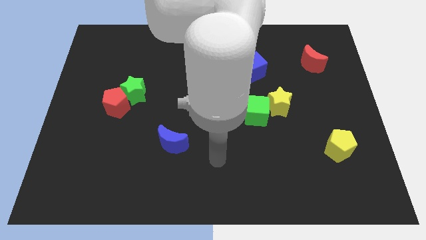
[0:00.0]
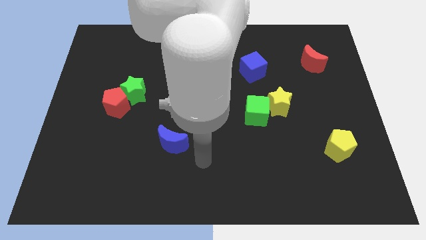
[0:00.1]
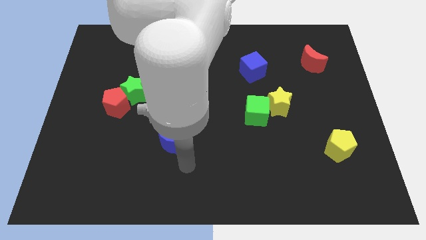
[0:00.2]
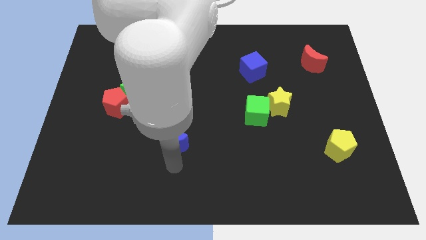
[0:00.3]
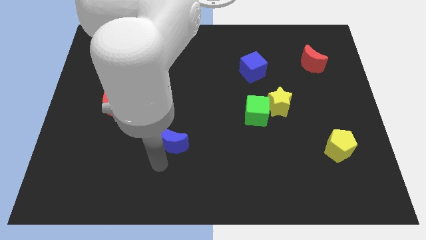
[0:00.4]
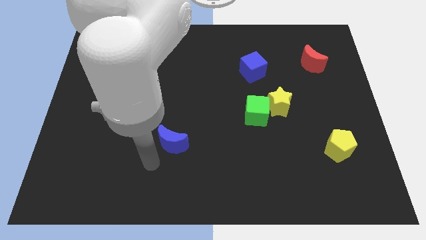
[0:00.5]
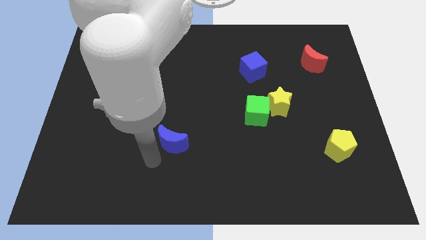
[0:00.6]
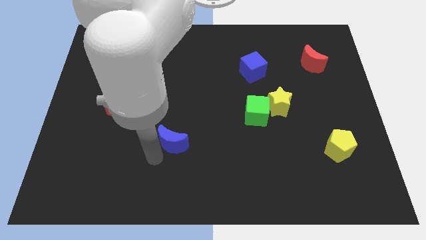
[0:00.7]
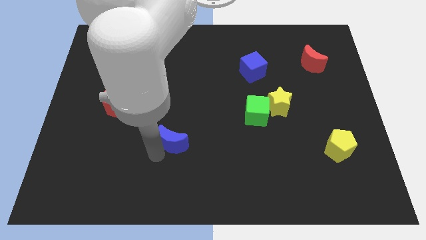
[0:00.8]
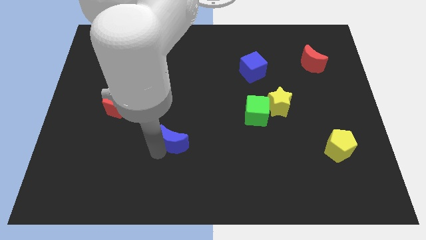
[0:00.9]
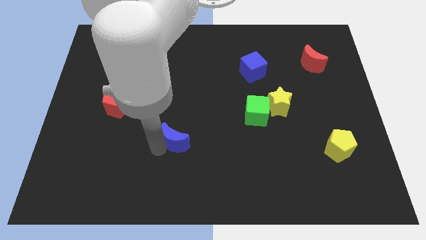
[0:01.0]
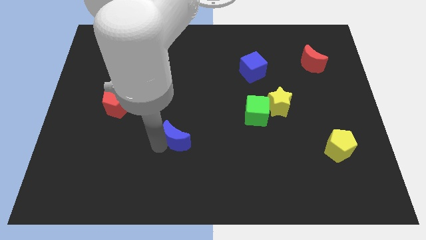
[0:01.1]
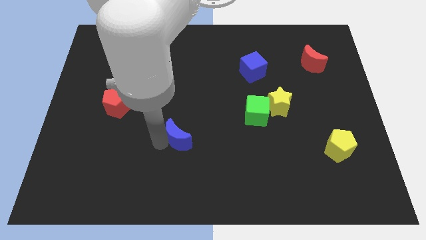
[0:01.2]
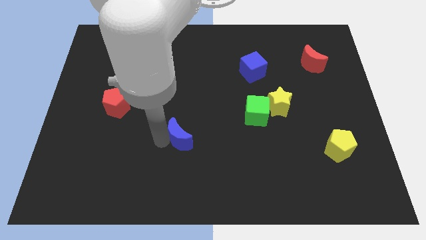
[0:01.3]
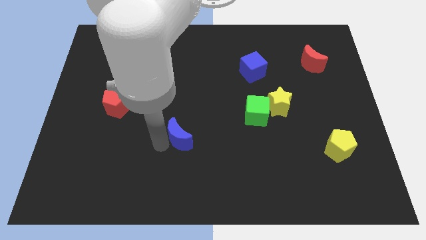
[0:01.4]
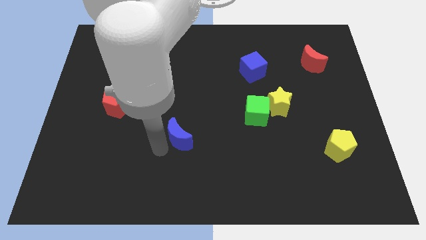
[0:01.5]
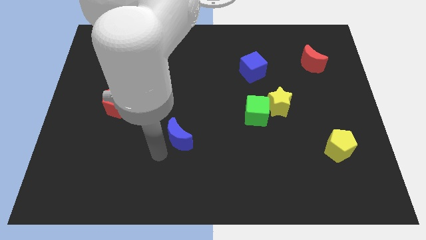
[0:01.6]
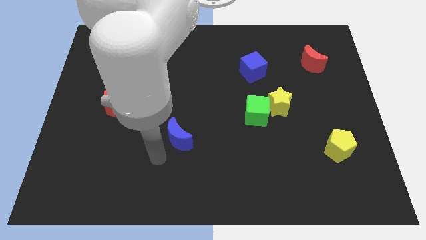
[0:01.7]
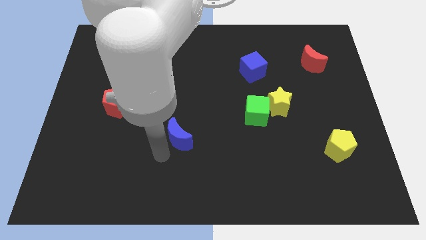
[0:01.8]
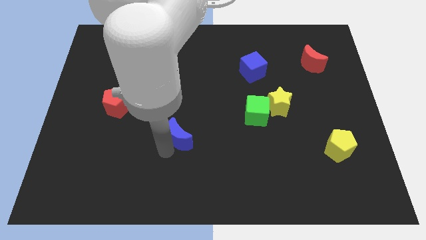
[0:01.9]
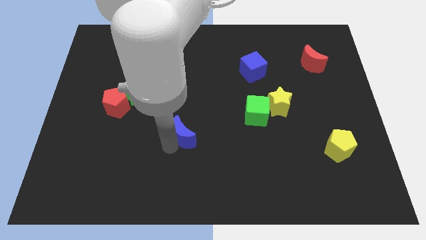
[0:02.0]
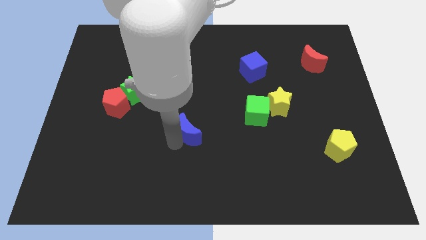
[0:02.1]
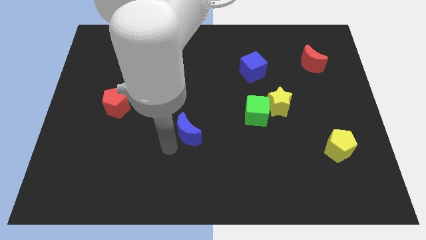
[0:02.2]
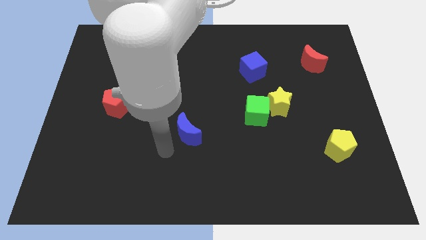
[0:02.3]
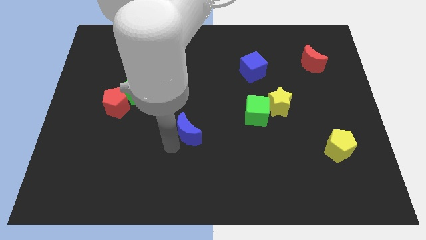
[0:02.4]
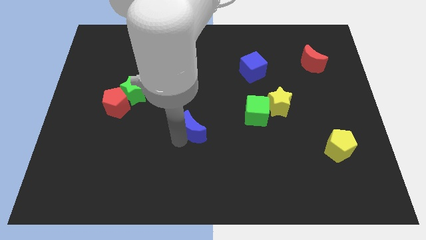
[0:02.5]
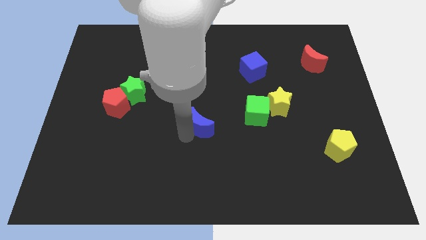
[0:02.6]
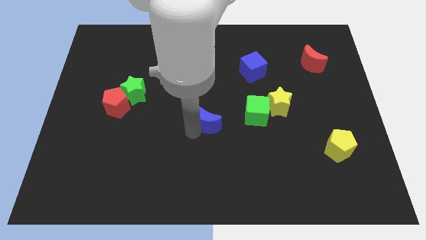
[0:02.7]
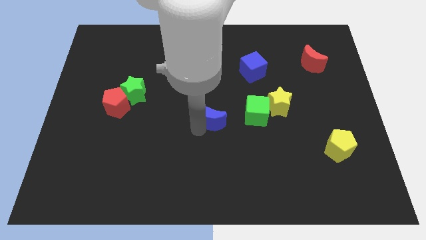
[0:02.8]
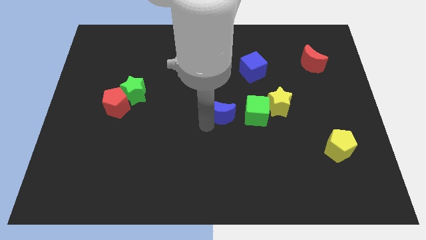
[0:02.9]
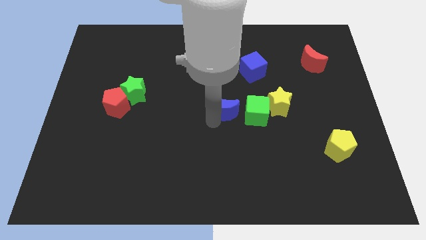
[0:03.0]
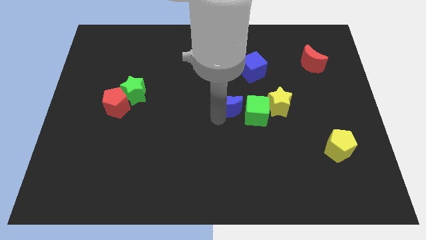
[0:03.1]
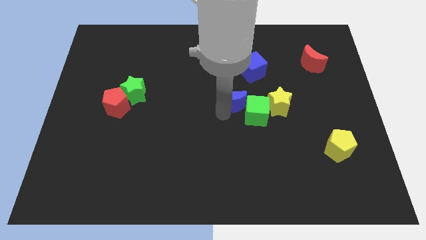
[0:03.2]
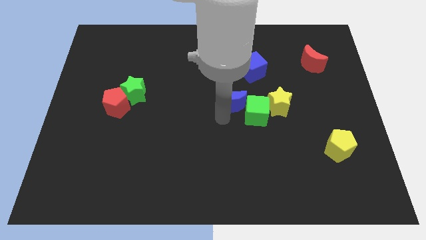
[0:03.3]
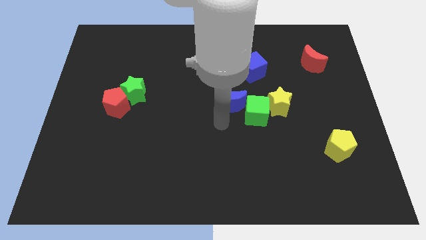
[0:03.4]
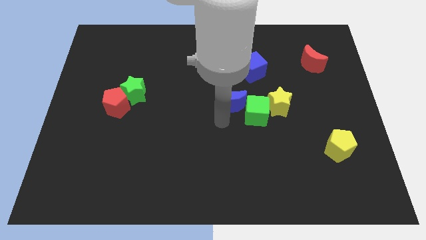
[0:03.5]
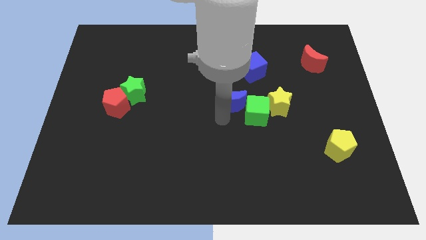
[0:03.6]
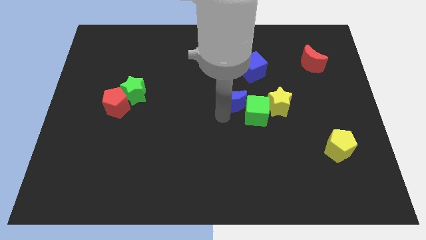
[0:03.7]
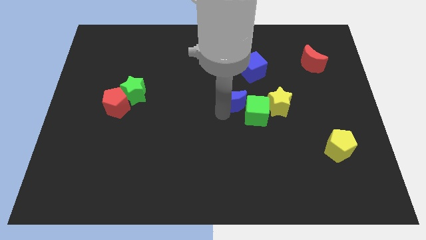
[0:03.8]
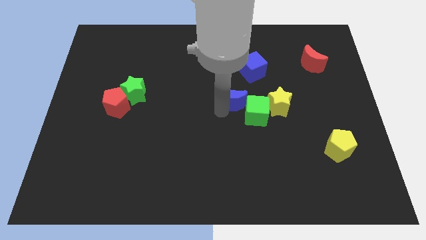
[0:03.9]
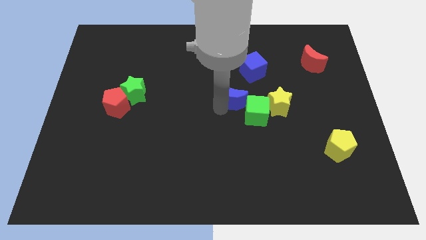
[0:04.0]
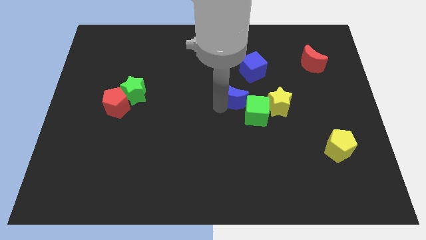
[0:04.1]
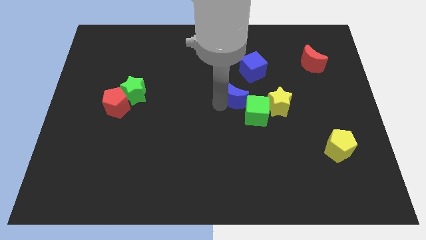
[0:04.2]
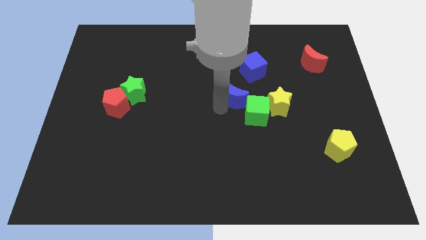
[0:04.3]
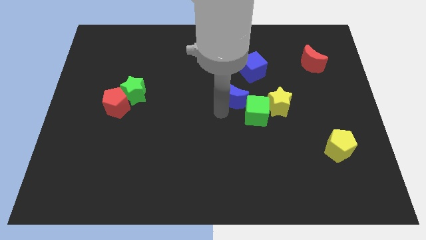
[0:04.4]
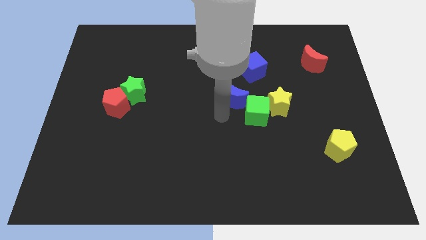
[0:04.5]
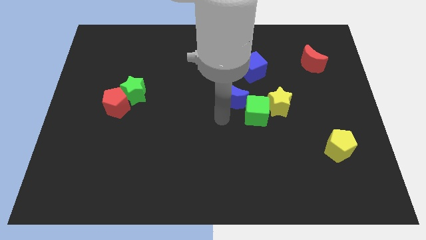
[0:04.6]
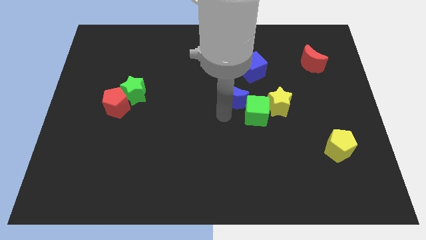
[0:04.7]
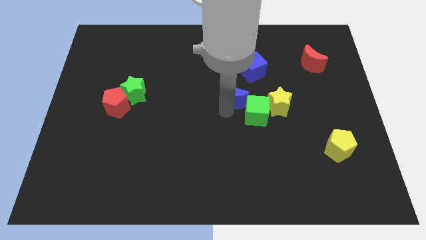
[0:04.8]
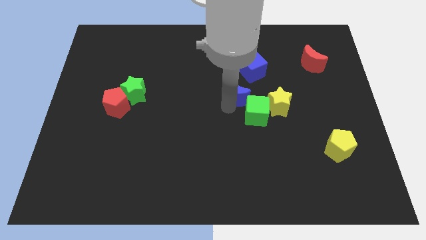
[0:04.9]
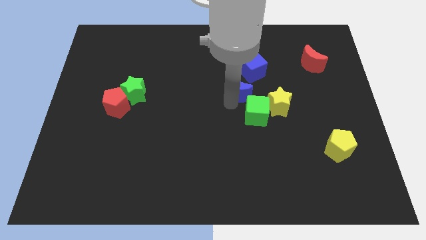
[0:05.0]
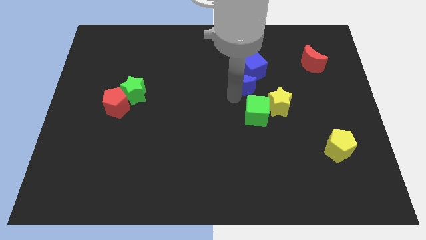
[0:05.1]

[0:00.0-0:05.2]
put the blue moon next to the blue cube

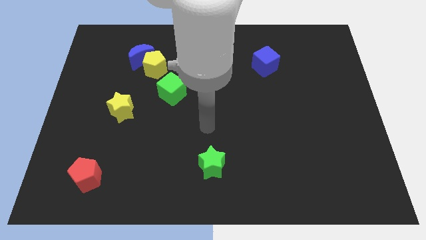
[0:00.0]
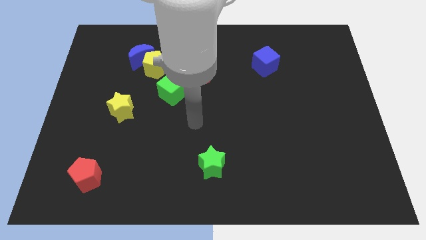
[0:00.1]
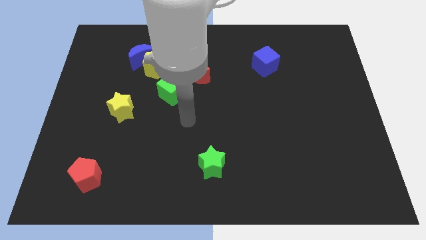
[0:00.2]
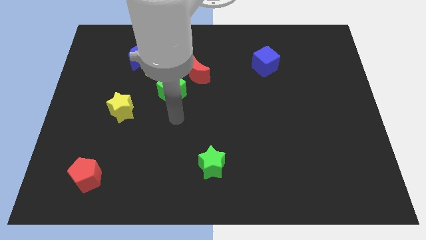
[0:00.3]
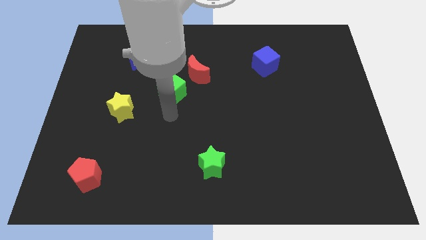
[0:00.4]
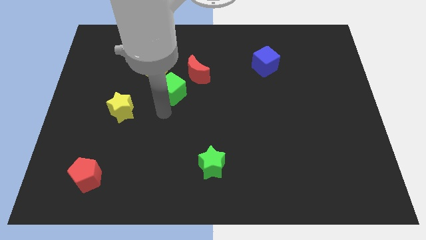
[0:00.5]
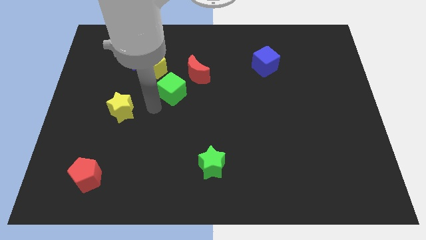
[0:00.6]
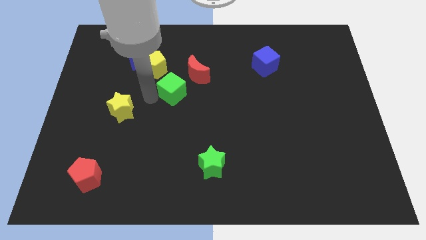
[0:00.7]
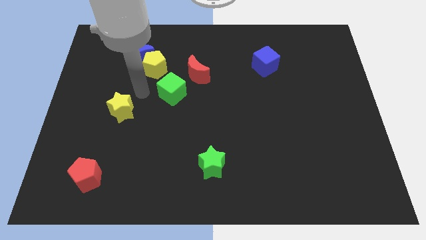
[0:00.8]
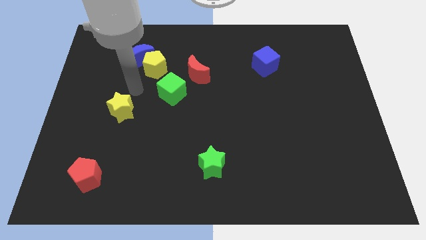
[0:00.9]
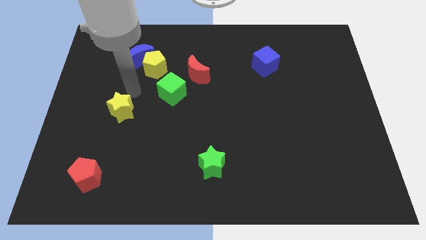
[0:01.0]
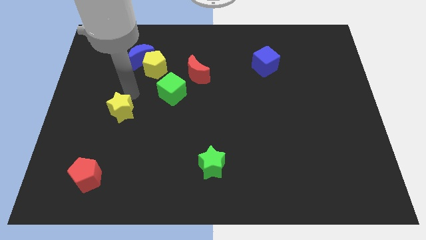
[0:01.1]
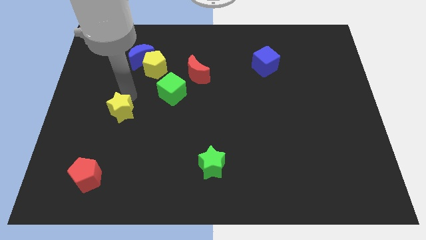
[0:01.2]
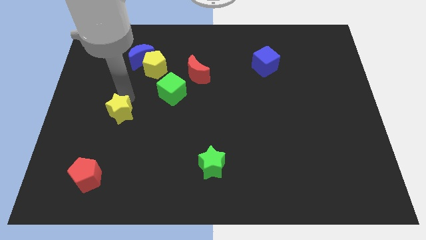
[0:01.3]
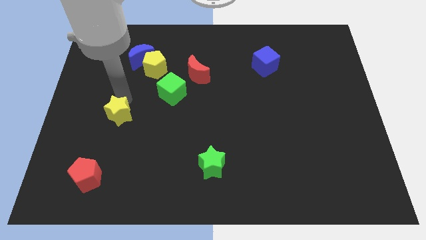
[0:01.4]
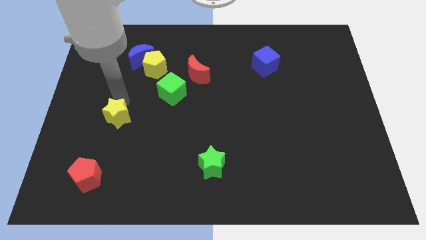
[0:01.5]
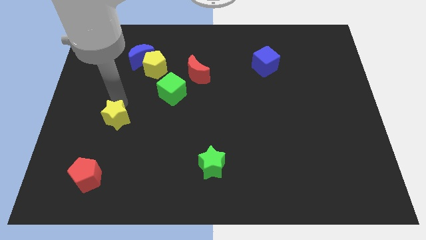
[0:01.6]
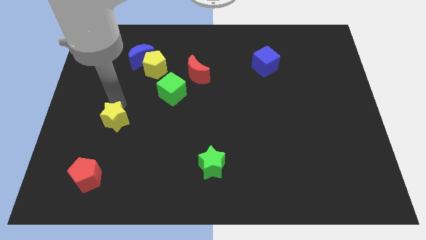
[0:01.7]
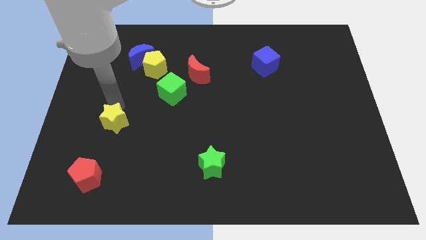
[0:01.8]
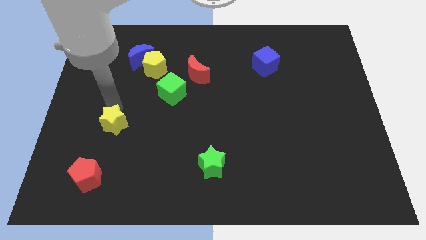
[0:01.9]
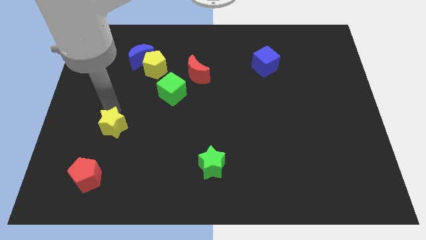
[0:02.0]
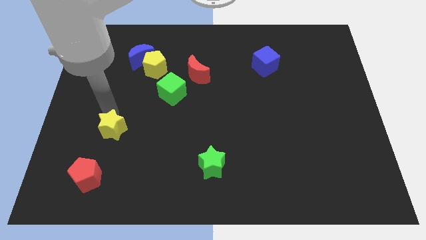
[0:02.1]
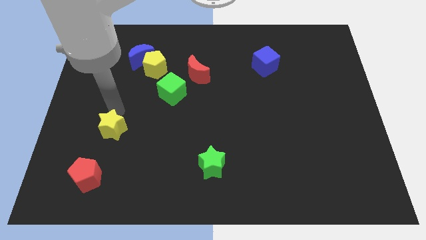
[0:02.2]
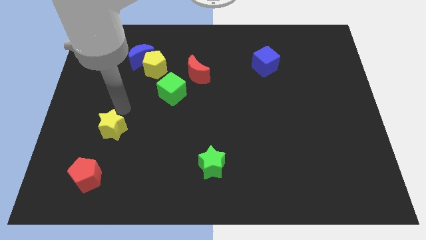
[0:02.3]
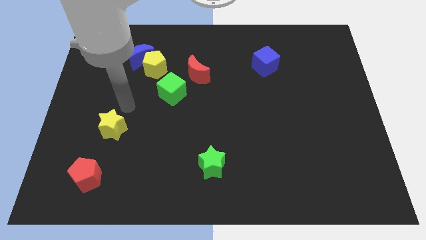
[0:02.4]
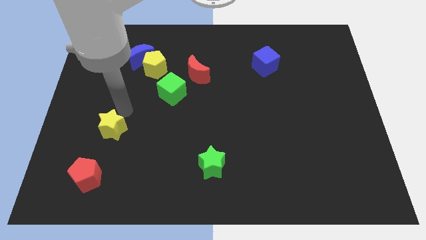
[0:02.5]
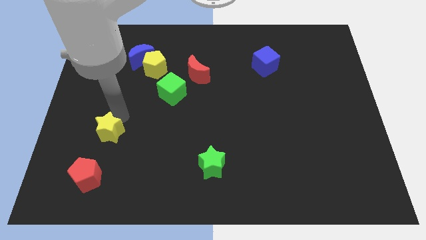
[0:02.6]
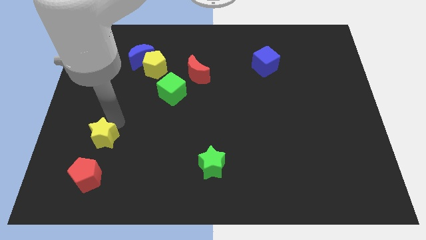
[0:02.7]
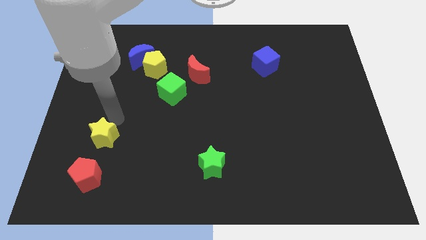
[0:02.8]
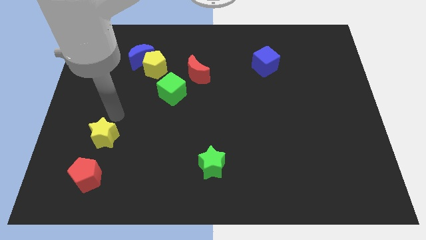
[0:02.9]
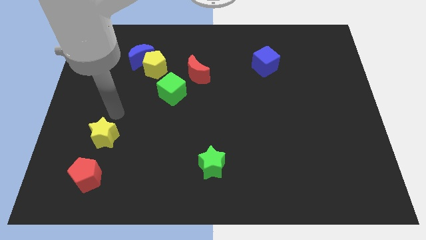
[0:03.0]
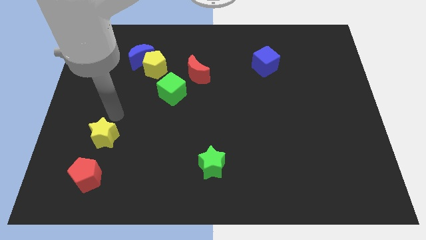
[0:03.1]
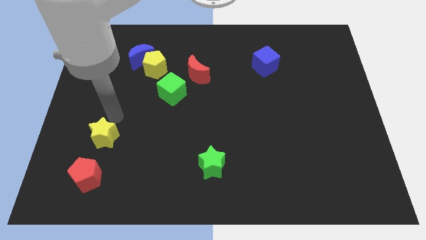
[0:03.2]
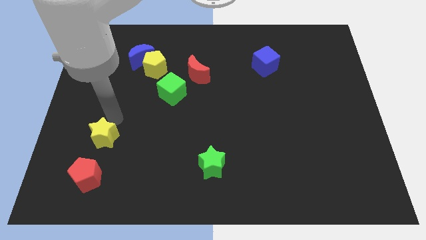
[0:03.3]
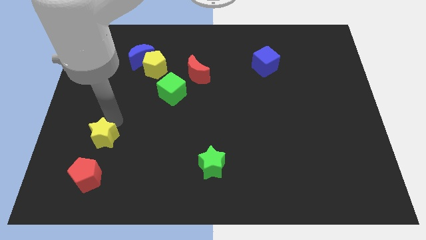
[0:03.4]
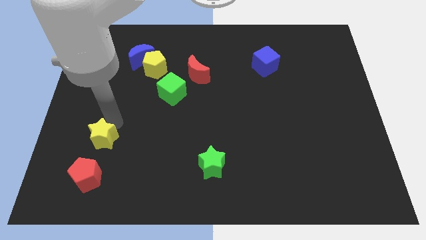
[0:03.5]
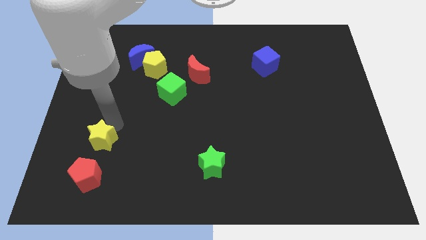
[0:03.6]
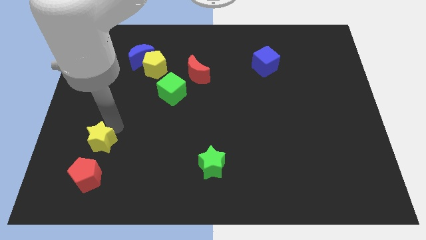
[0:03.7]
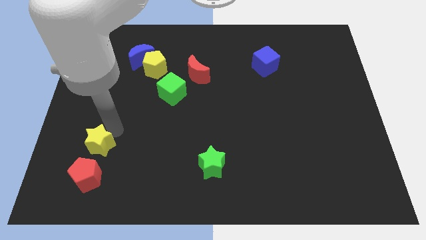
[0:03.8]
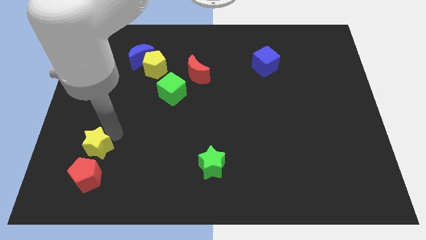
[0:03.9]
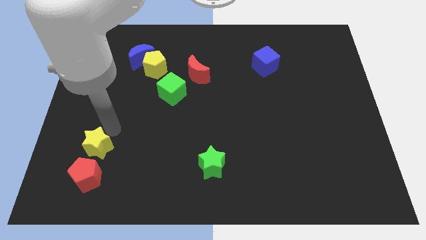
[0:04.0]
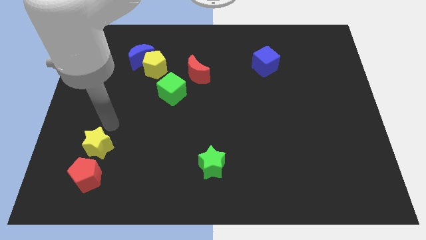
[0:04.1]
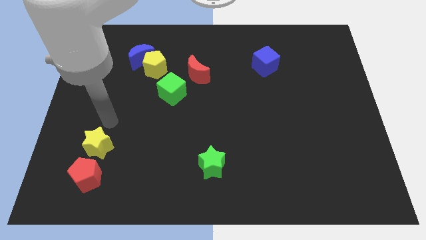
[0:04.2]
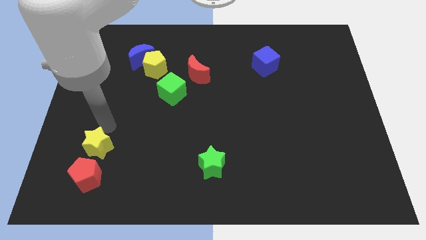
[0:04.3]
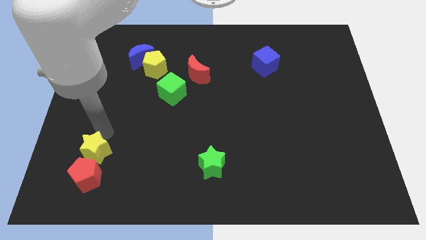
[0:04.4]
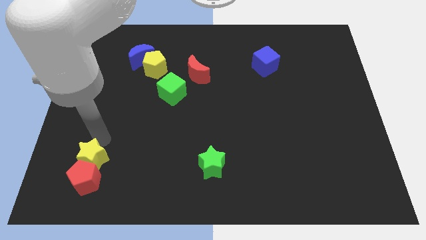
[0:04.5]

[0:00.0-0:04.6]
slide the yellow star next to the red pentagon
